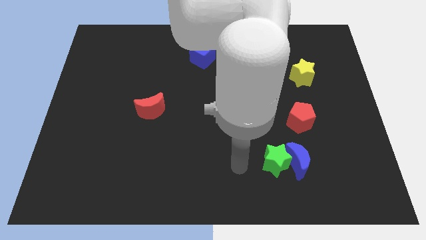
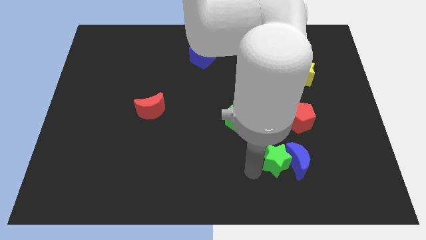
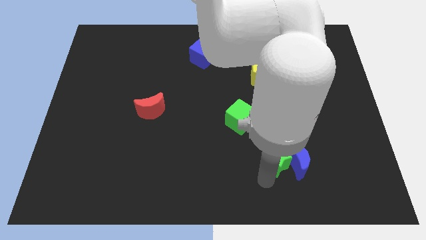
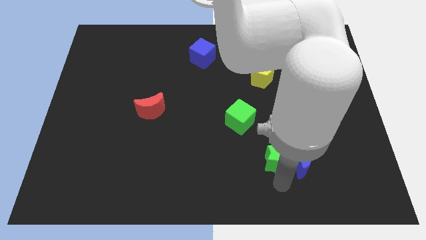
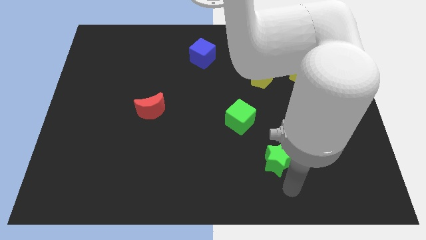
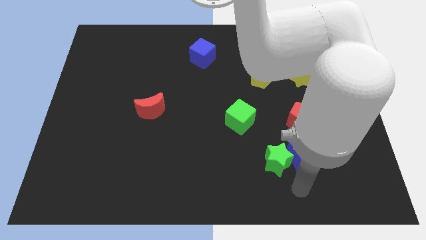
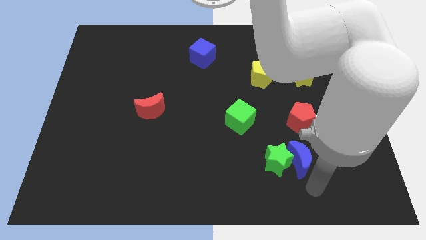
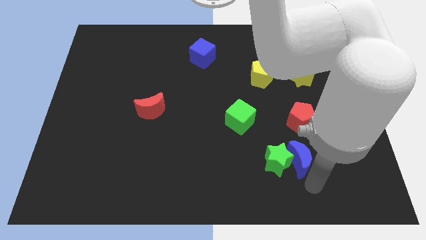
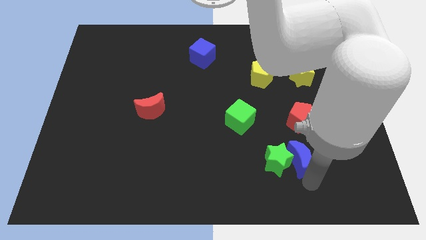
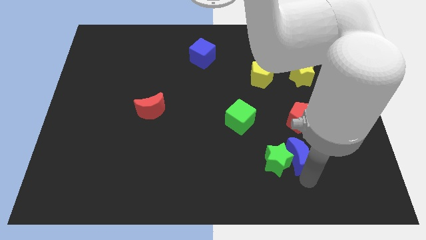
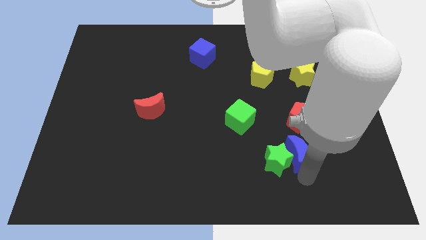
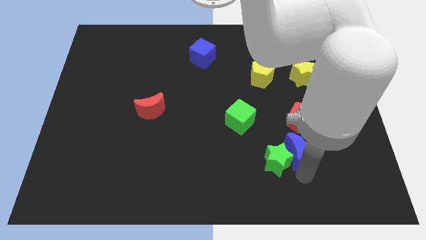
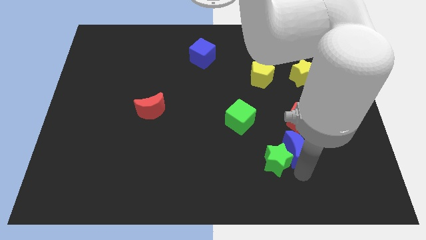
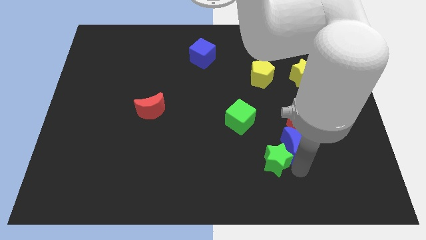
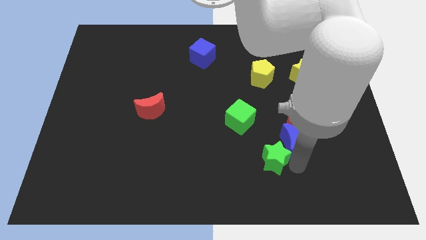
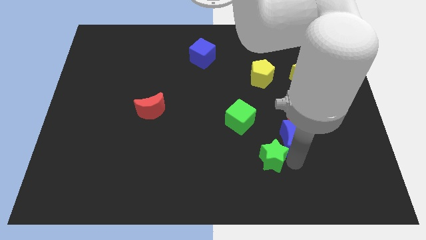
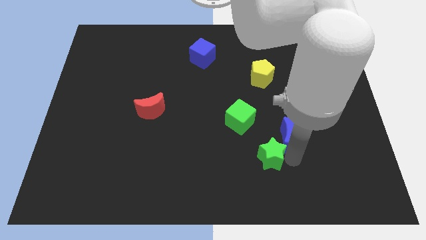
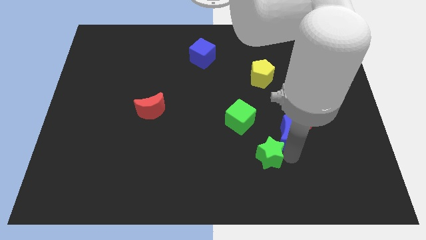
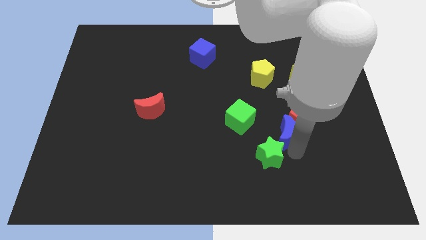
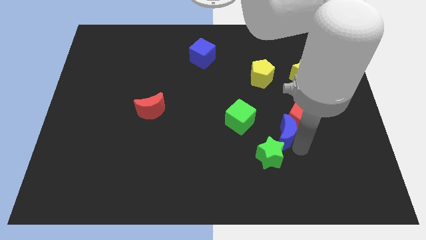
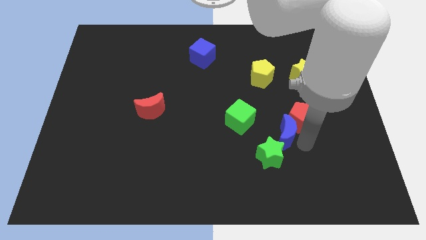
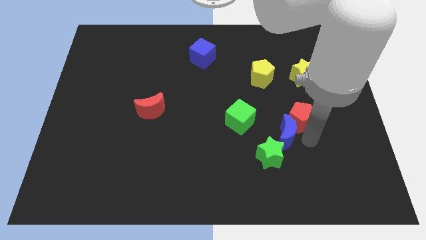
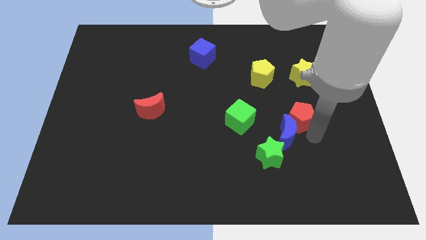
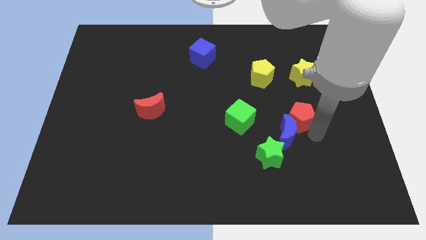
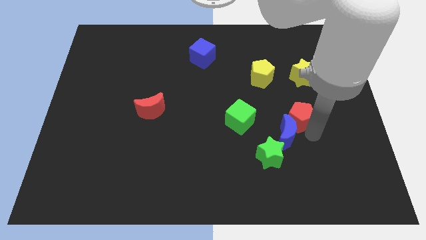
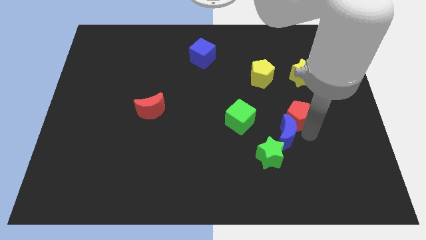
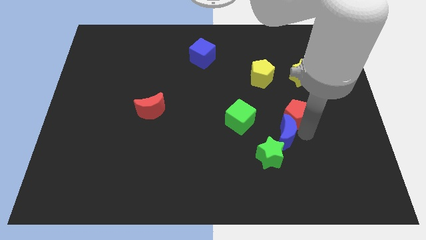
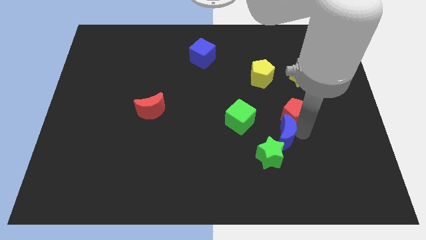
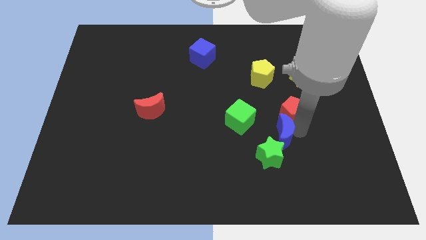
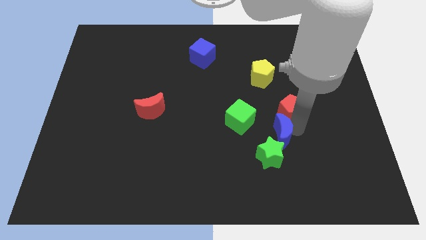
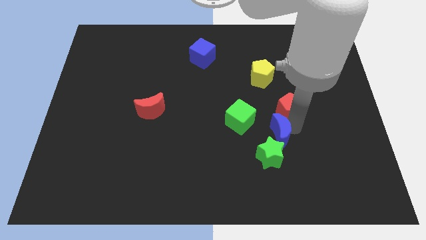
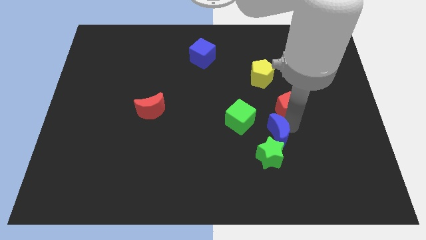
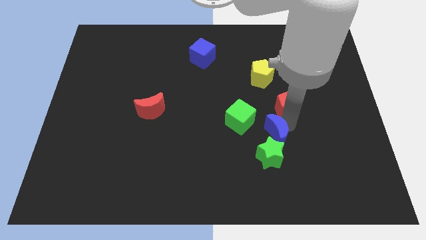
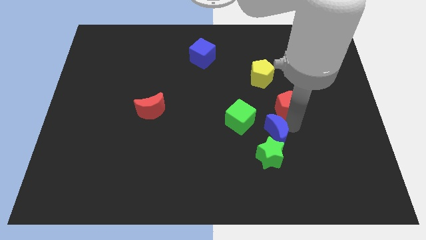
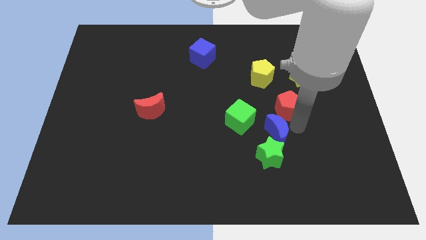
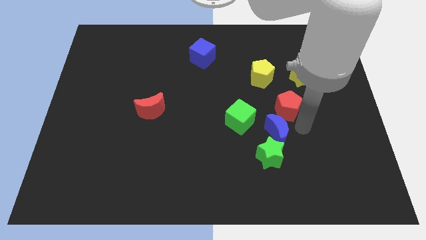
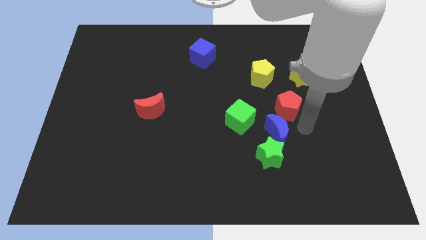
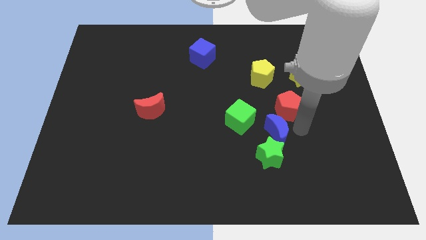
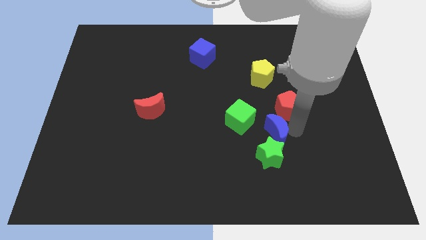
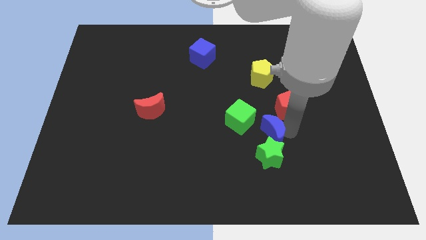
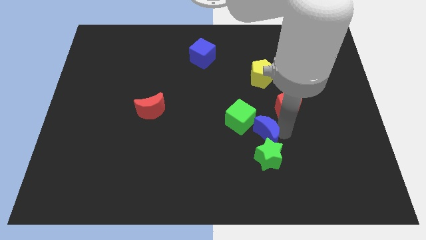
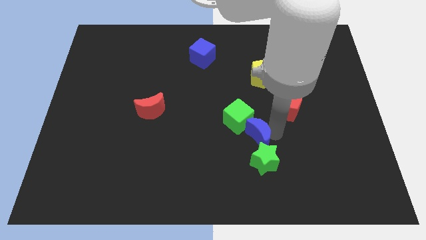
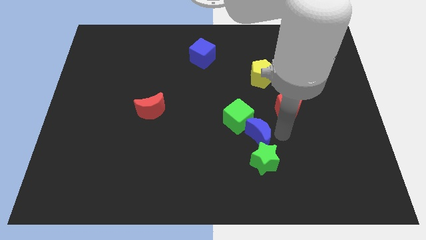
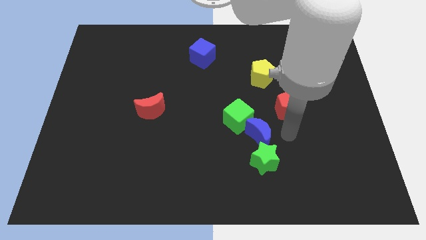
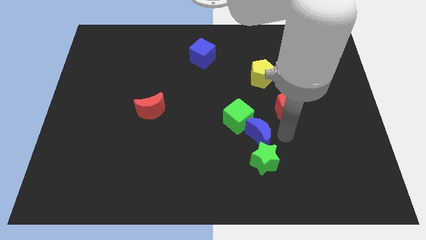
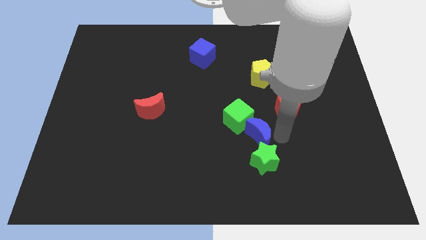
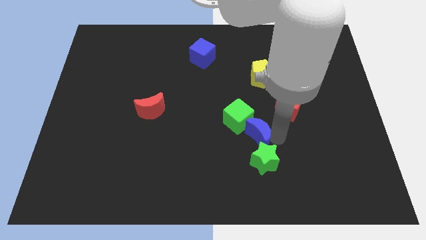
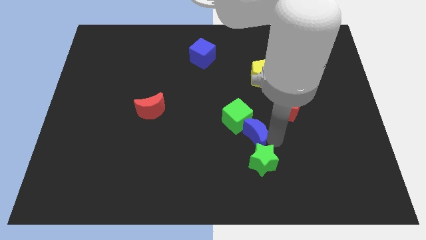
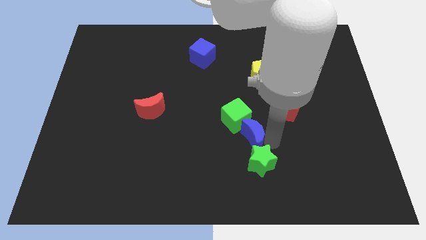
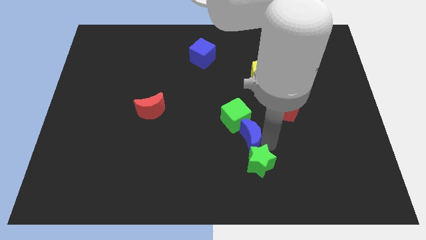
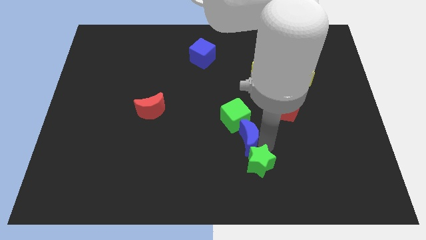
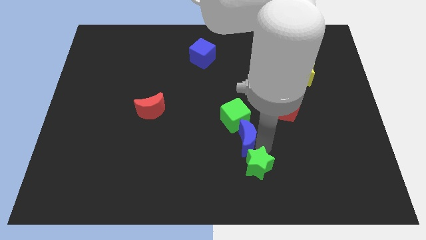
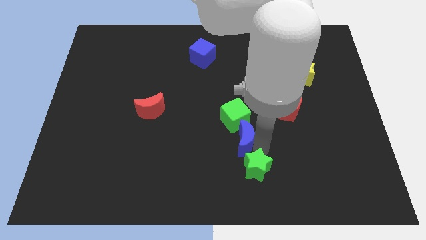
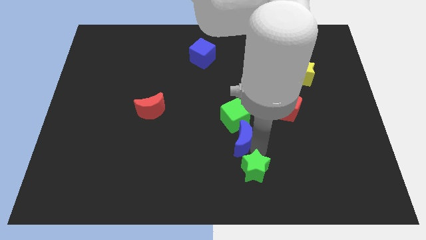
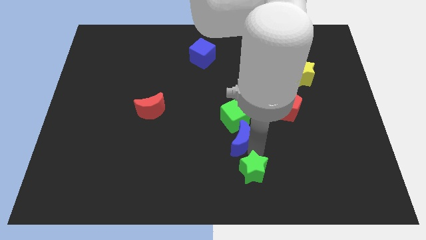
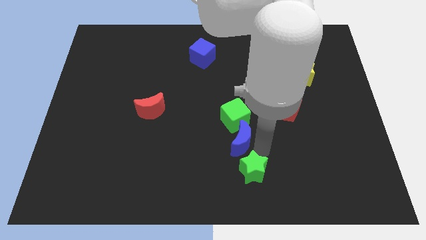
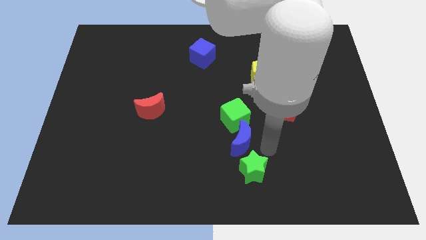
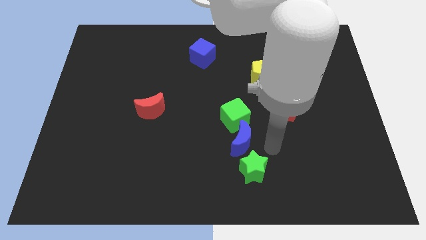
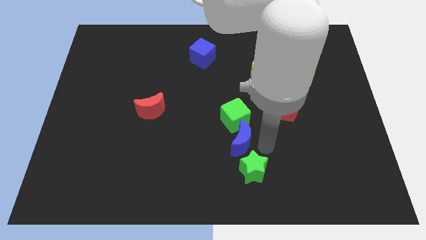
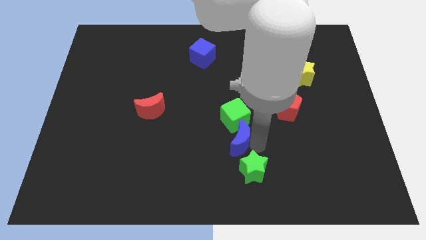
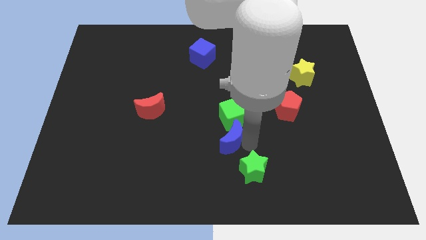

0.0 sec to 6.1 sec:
move the blue moon diagonally down and to the left of the green cube

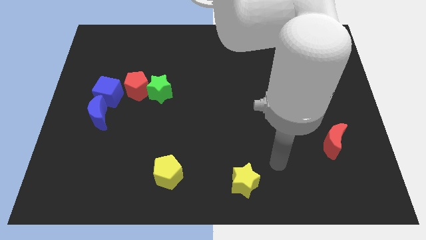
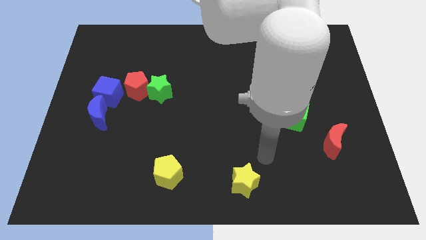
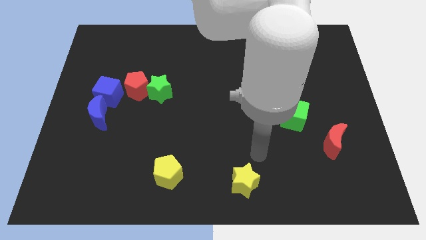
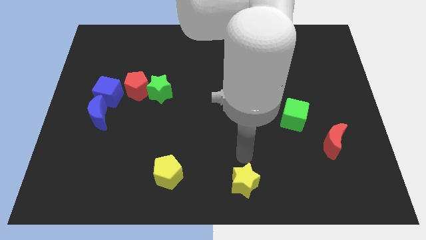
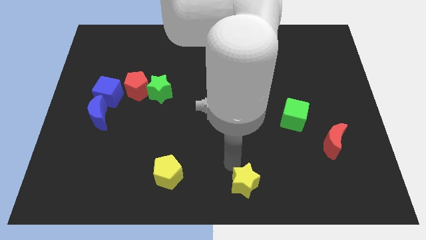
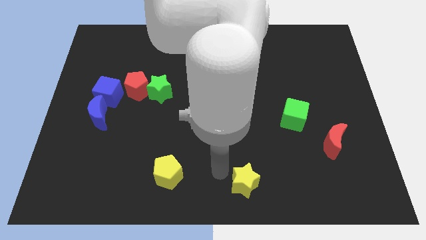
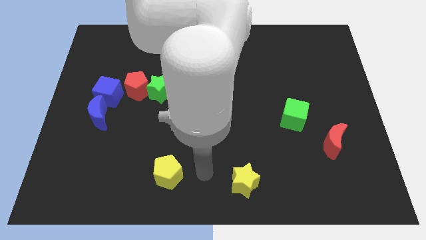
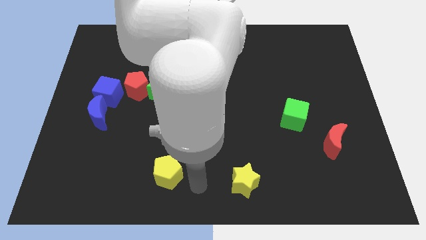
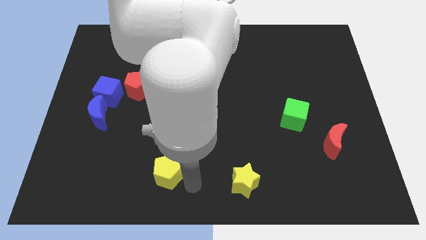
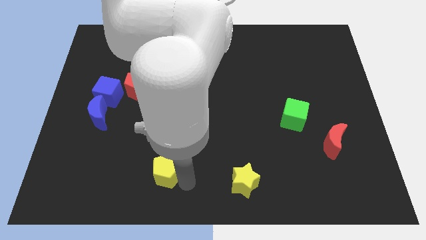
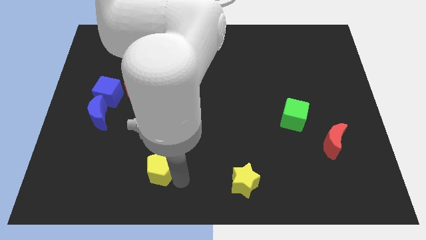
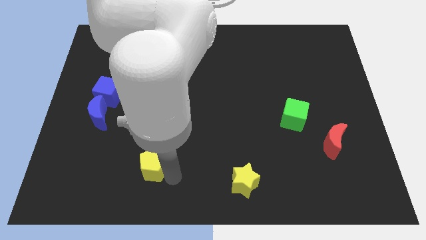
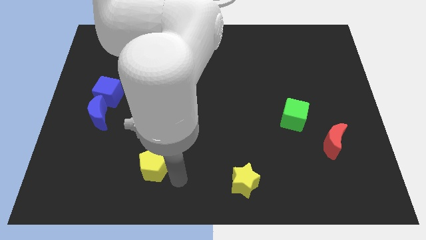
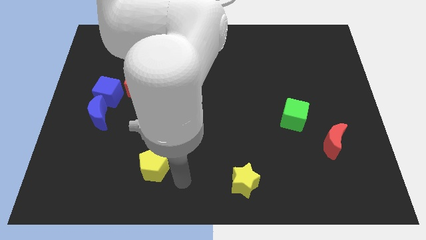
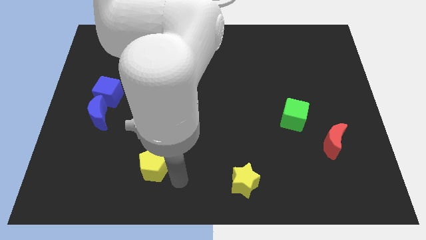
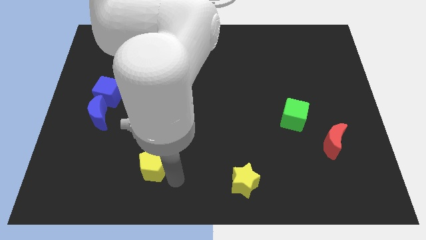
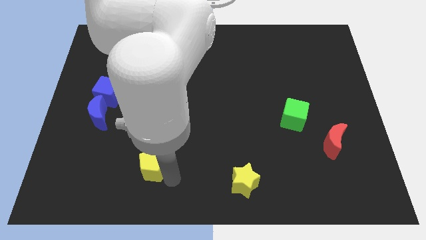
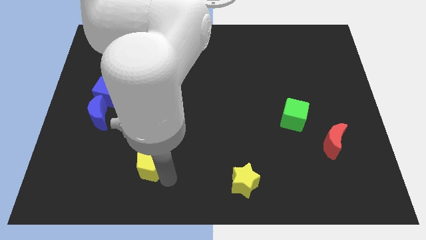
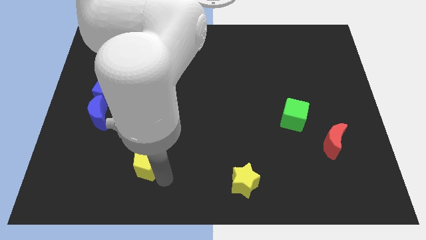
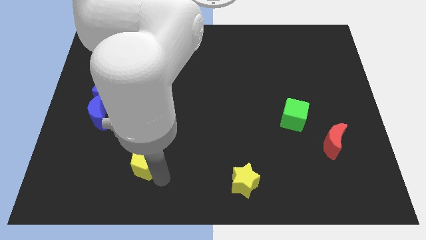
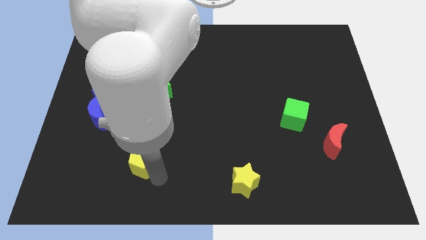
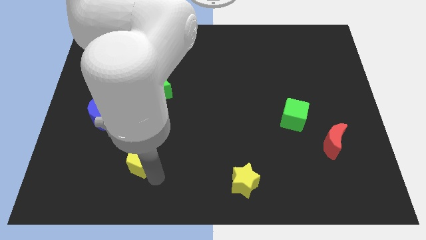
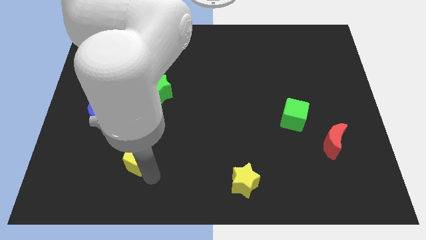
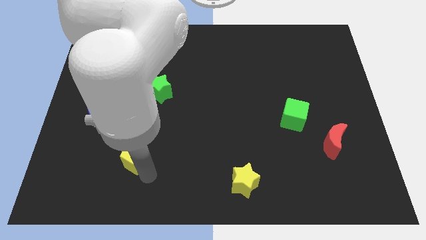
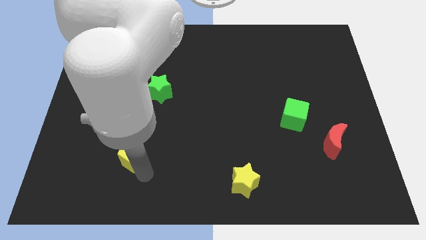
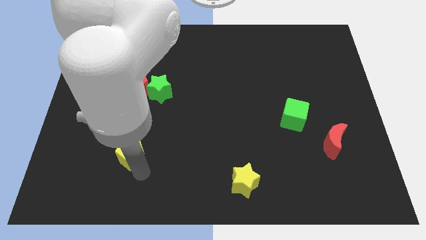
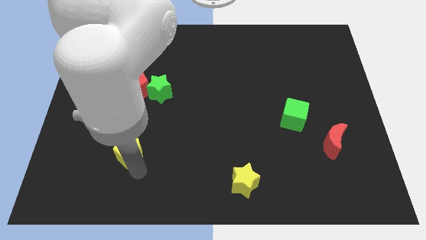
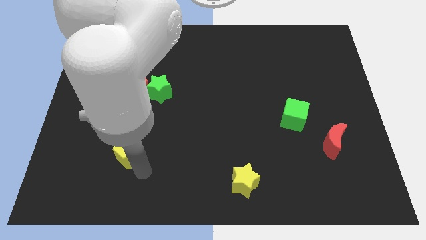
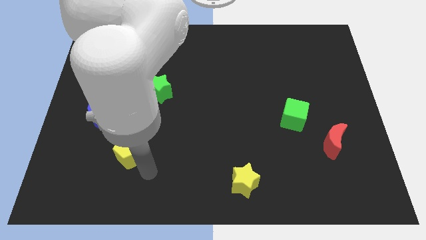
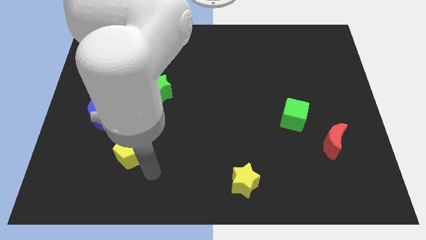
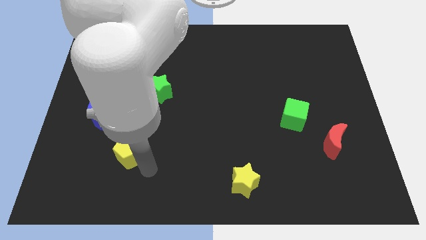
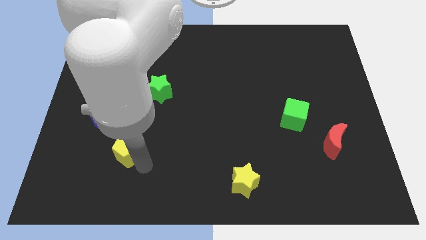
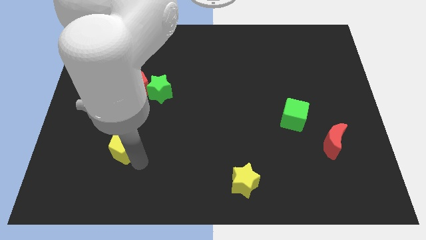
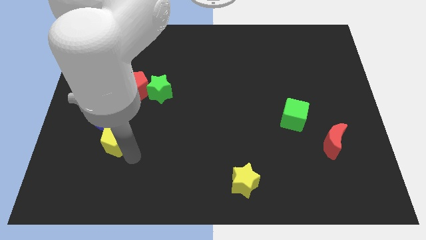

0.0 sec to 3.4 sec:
slide the yellow pentagon below the blue cube
